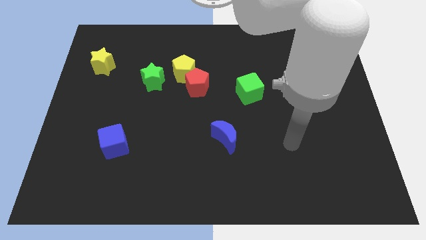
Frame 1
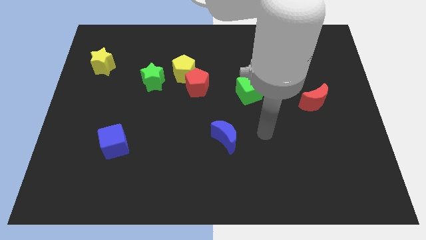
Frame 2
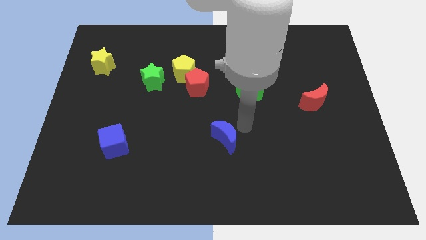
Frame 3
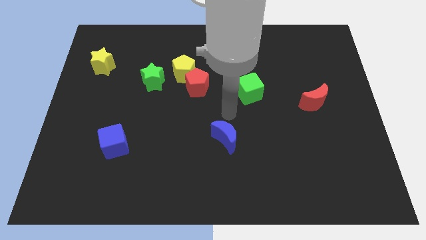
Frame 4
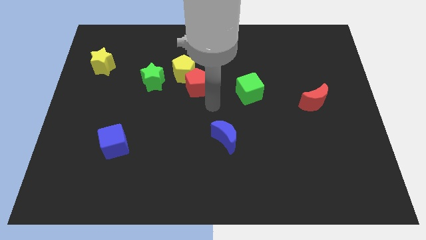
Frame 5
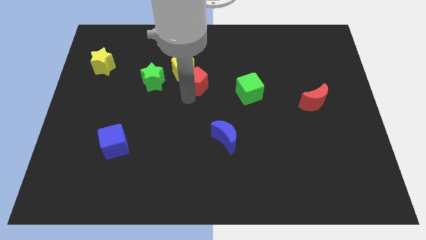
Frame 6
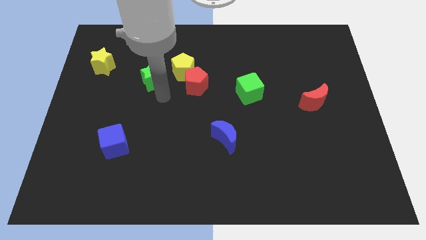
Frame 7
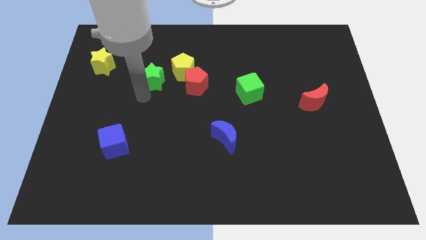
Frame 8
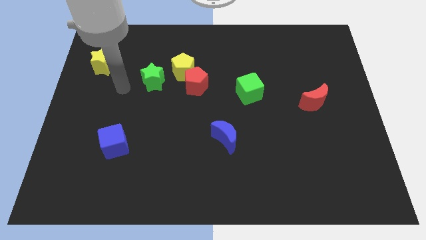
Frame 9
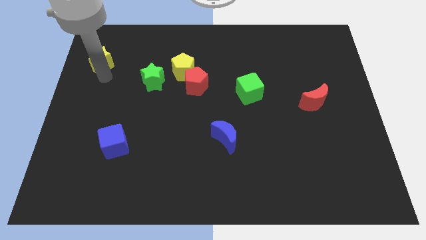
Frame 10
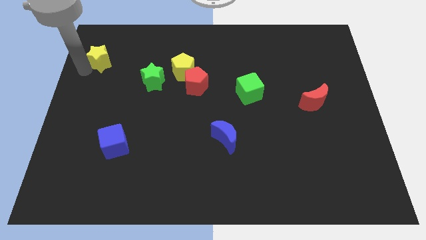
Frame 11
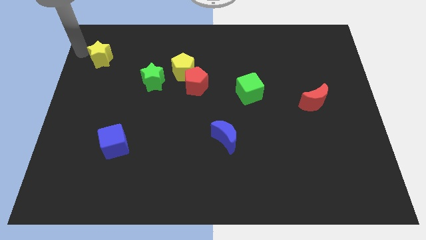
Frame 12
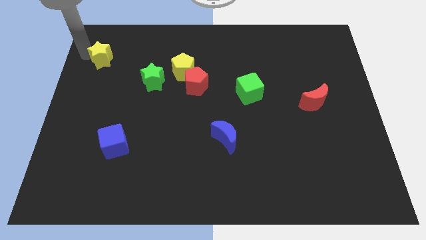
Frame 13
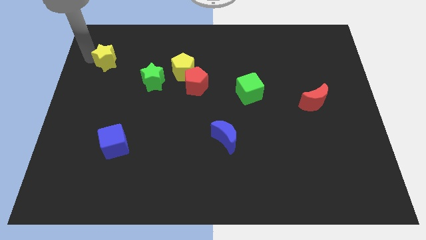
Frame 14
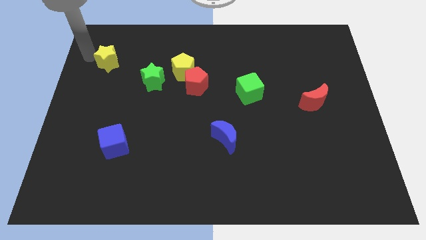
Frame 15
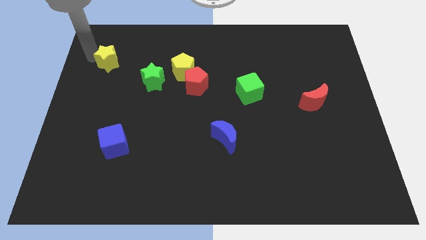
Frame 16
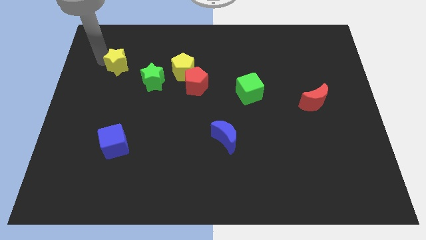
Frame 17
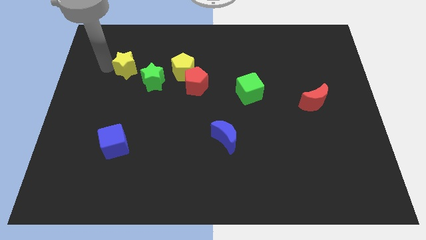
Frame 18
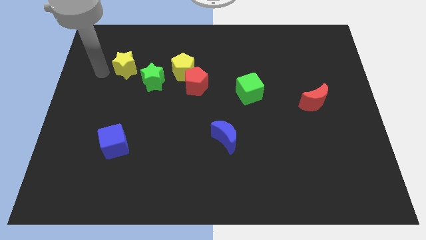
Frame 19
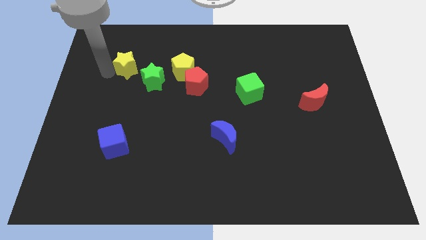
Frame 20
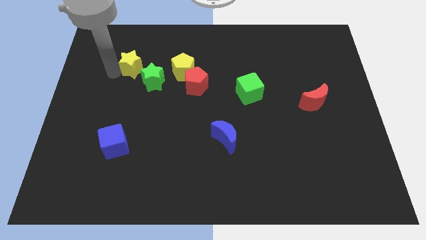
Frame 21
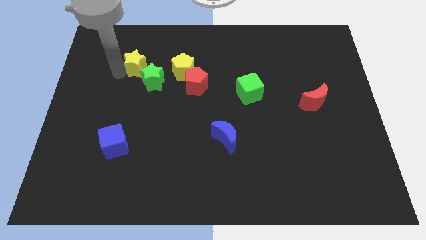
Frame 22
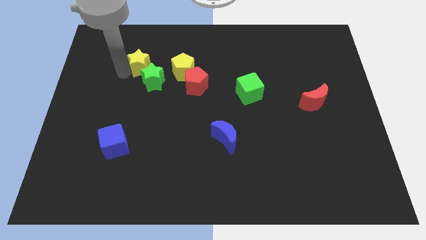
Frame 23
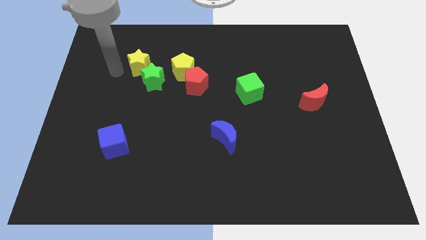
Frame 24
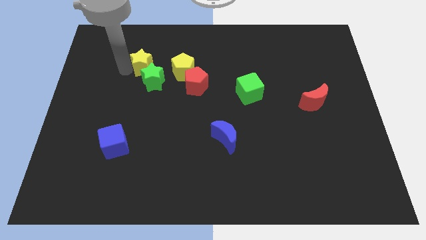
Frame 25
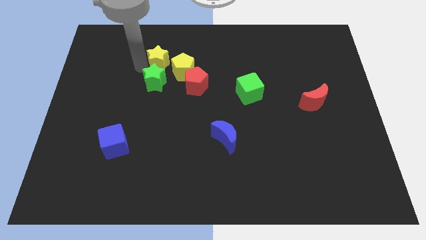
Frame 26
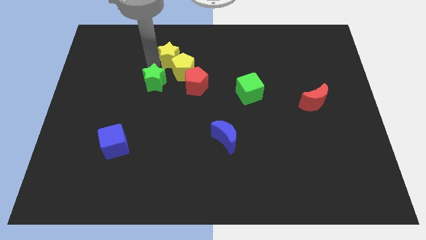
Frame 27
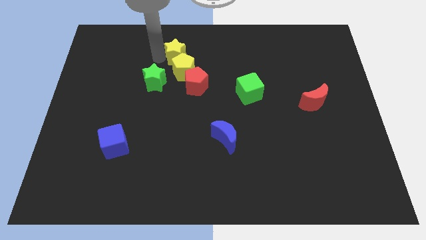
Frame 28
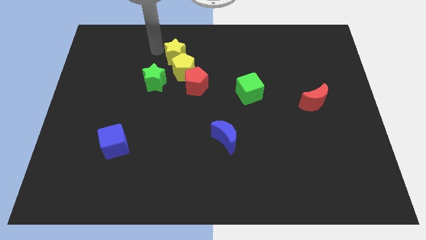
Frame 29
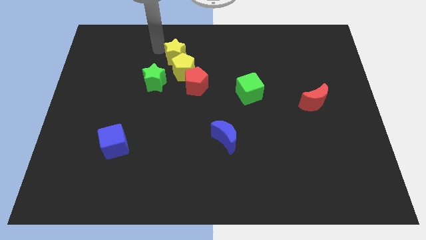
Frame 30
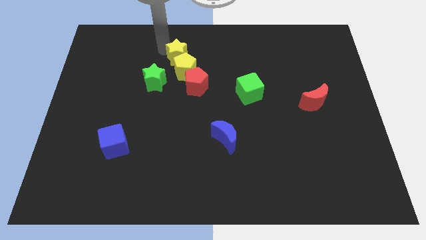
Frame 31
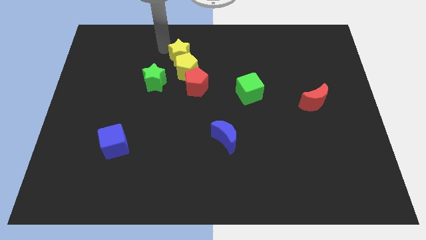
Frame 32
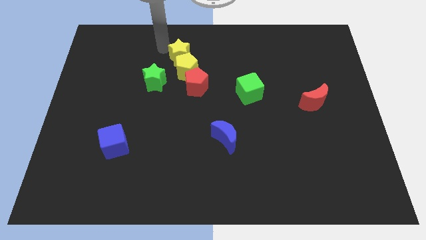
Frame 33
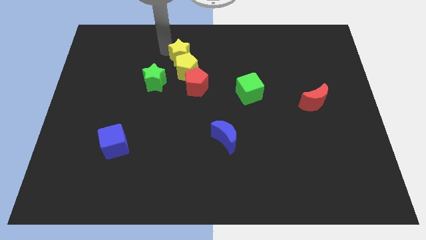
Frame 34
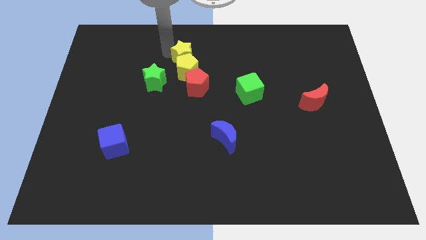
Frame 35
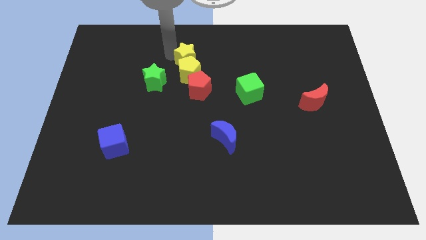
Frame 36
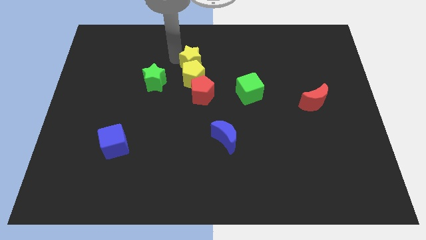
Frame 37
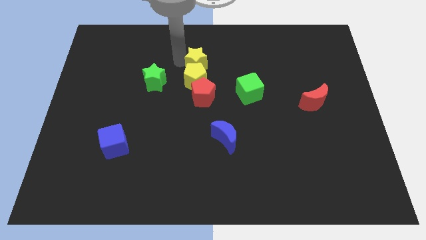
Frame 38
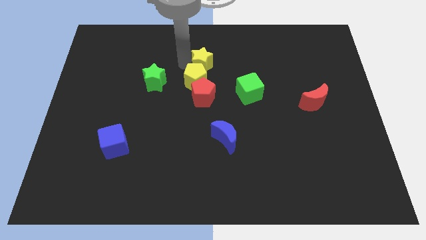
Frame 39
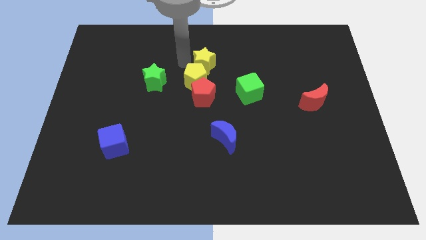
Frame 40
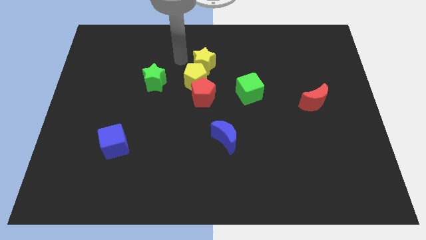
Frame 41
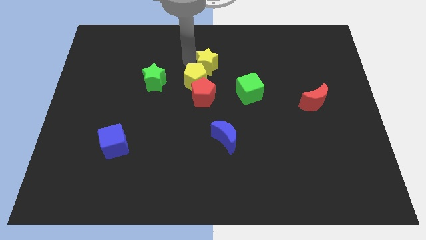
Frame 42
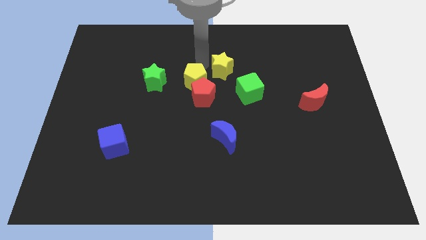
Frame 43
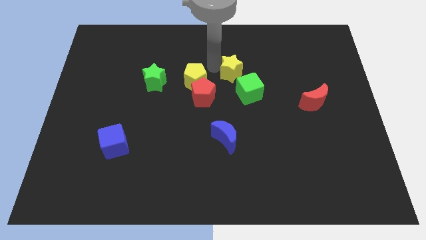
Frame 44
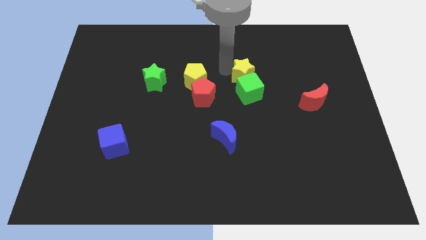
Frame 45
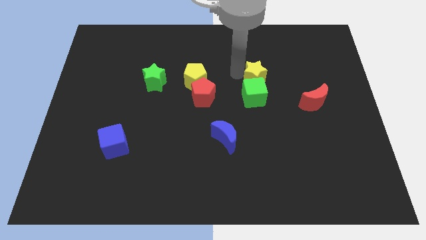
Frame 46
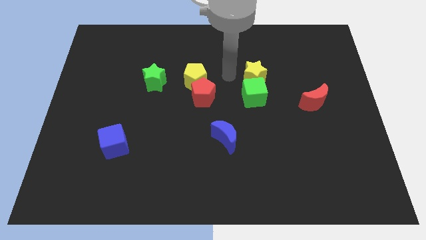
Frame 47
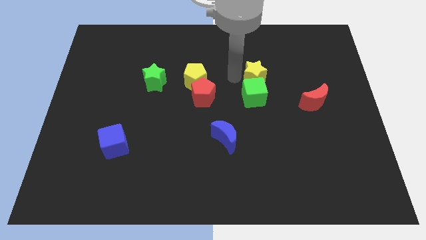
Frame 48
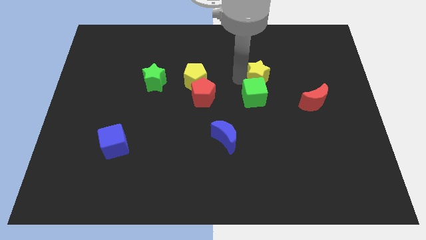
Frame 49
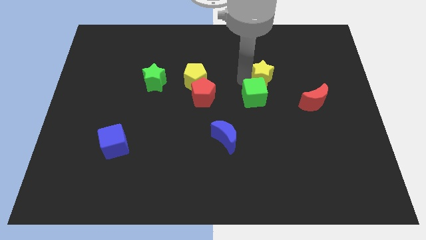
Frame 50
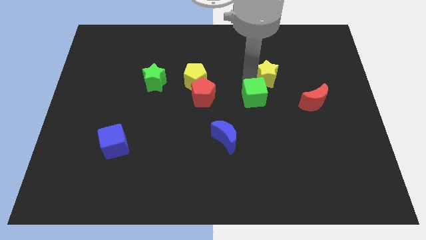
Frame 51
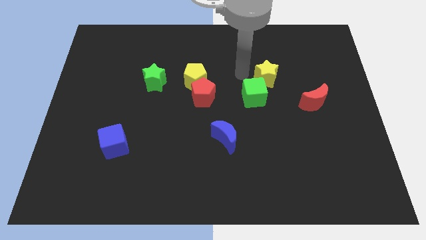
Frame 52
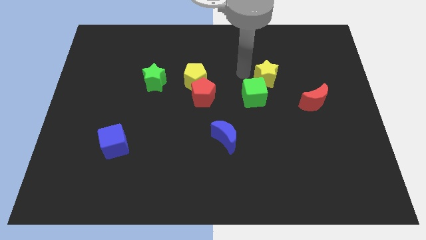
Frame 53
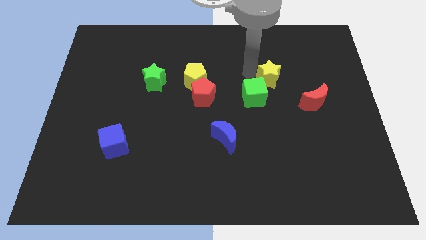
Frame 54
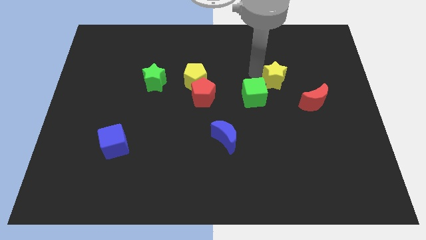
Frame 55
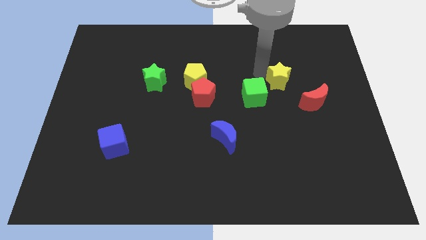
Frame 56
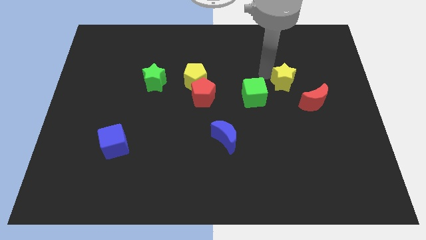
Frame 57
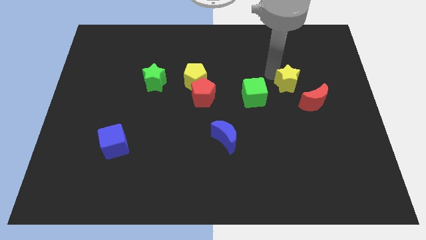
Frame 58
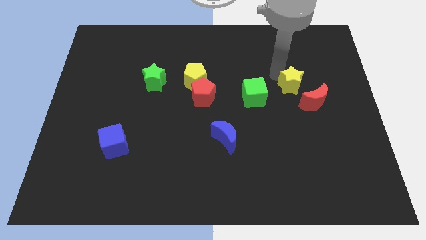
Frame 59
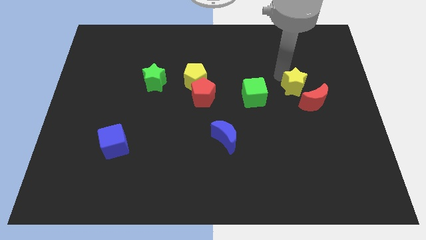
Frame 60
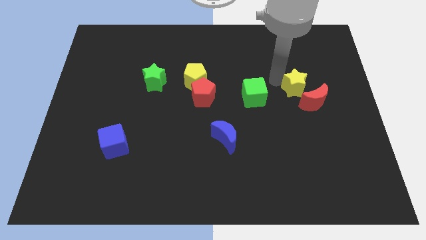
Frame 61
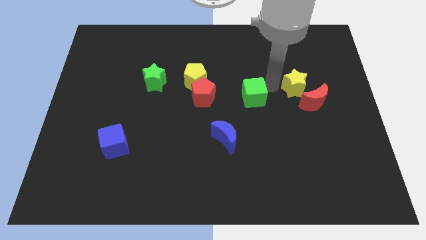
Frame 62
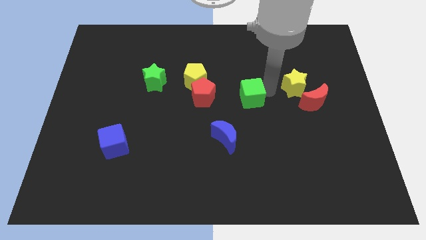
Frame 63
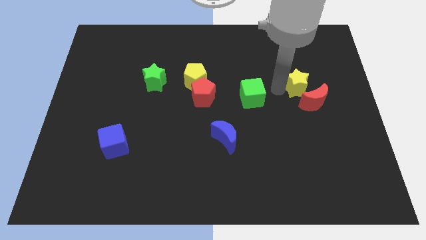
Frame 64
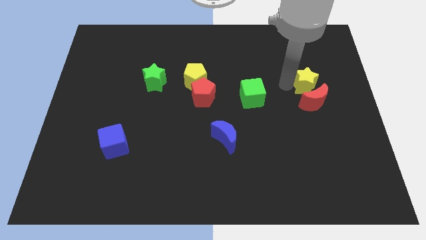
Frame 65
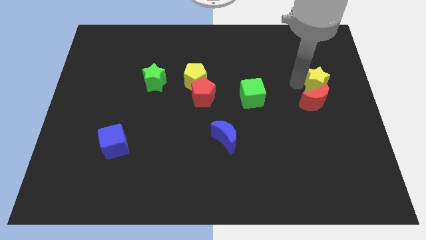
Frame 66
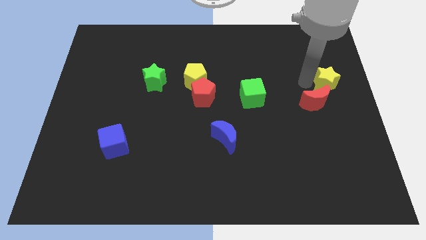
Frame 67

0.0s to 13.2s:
move the yellow star to the right side

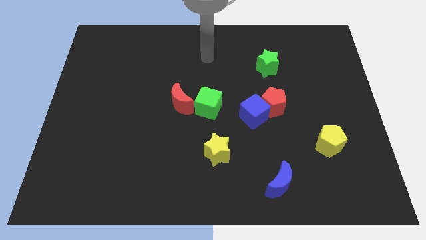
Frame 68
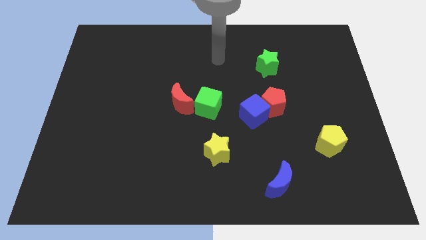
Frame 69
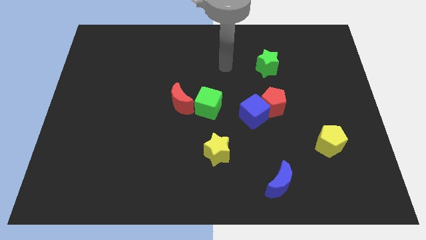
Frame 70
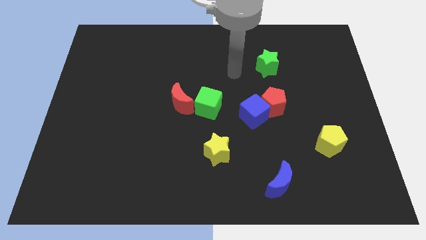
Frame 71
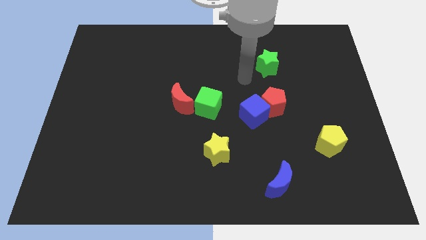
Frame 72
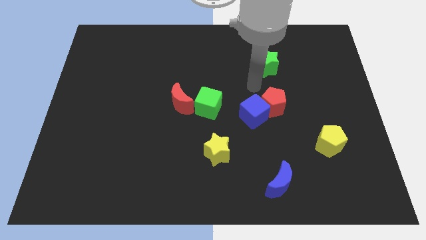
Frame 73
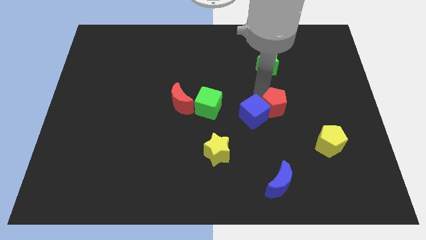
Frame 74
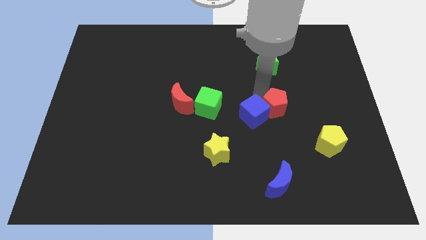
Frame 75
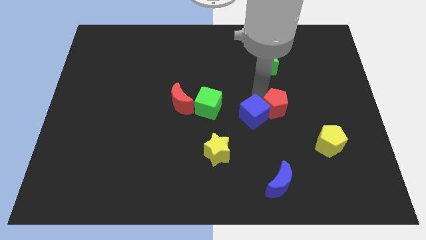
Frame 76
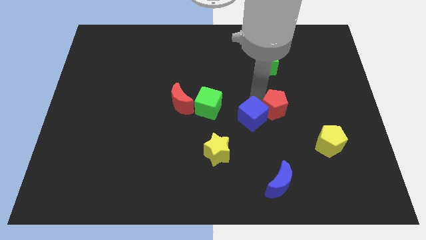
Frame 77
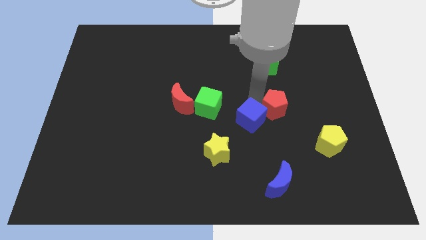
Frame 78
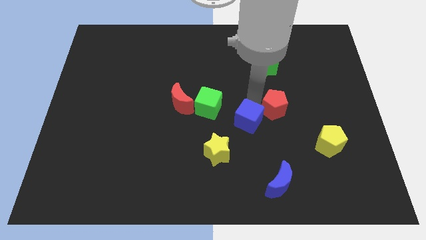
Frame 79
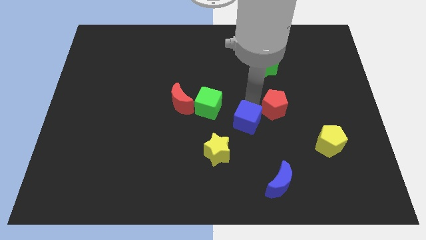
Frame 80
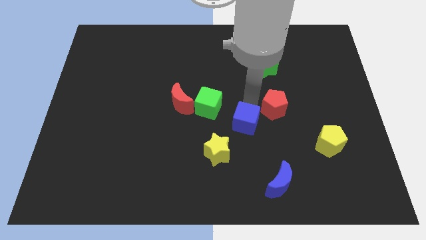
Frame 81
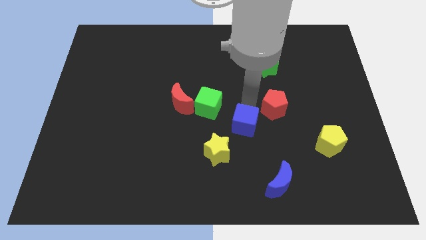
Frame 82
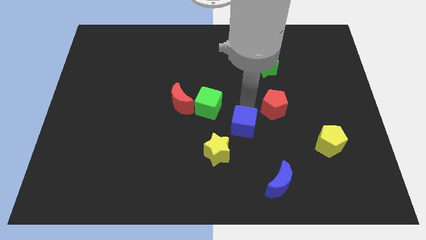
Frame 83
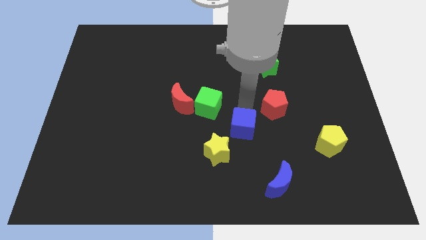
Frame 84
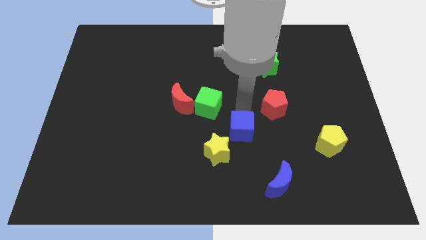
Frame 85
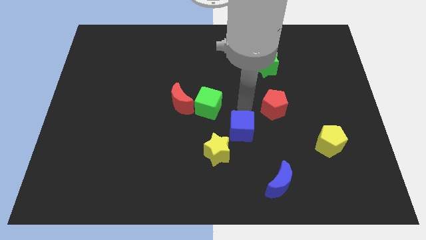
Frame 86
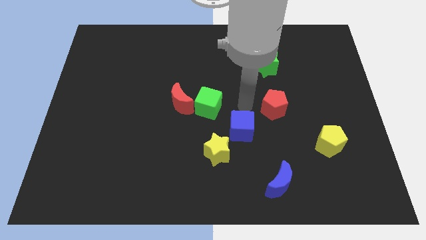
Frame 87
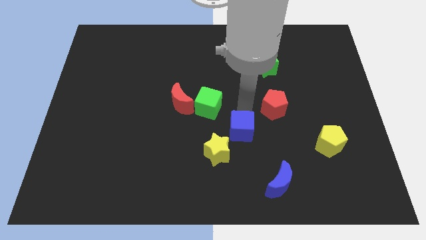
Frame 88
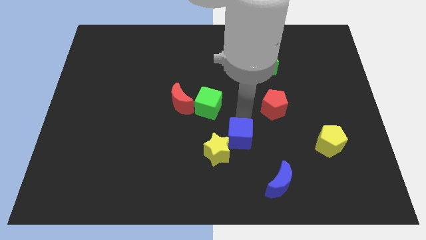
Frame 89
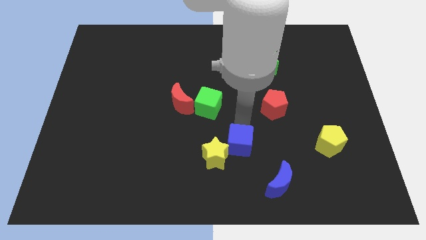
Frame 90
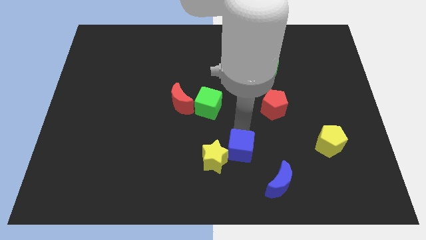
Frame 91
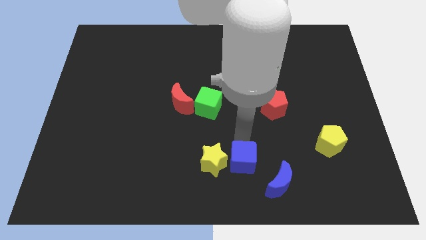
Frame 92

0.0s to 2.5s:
slide the blue cube to the bottom
